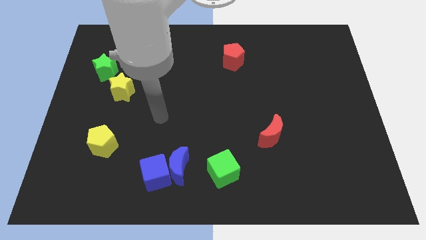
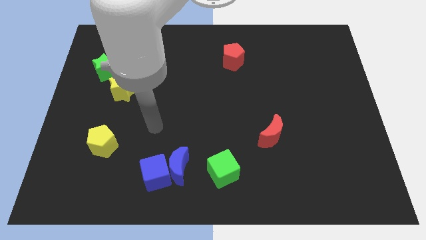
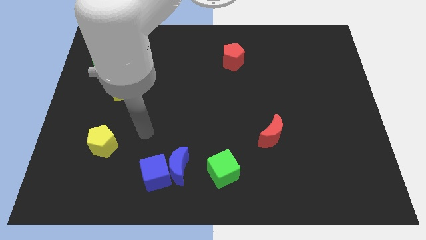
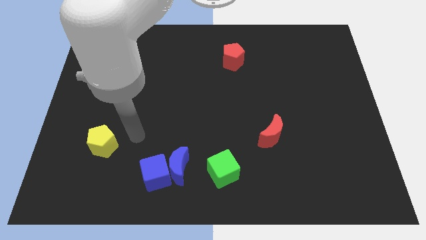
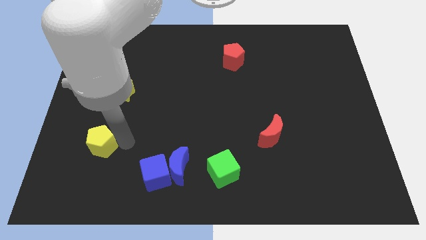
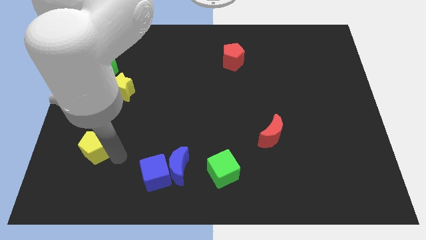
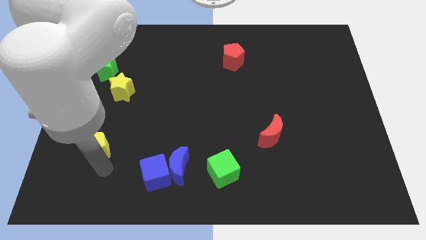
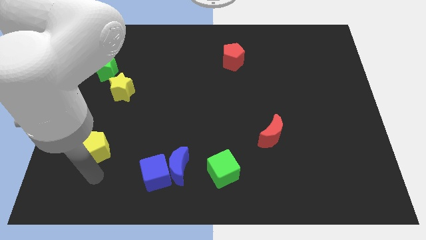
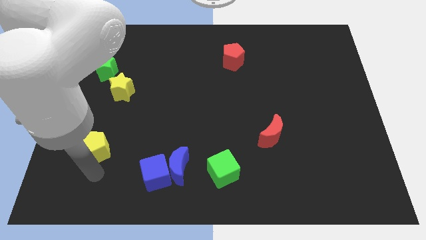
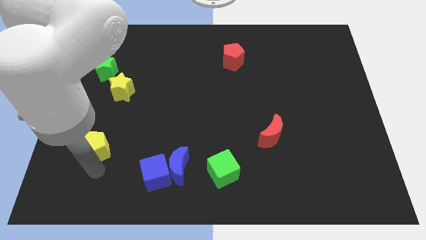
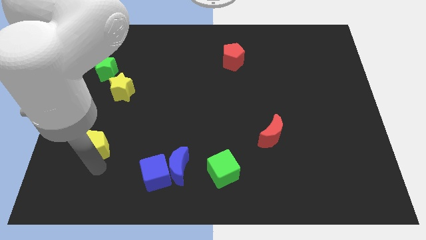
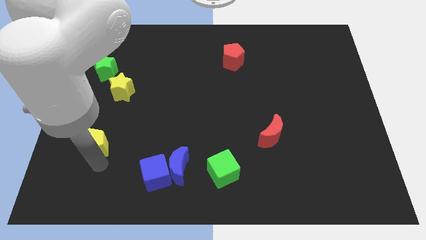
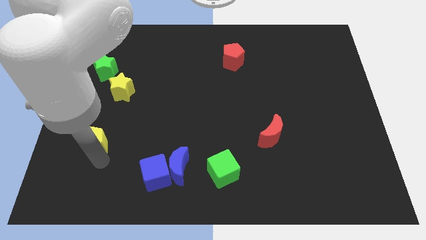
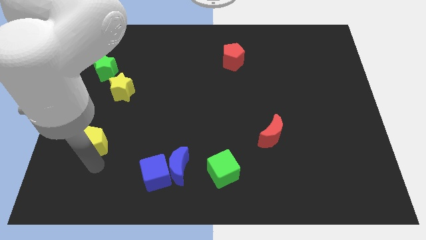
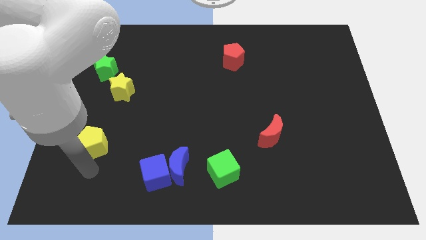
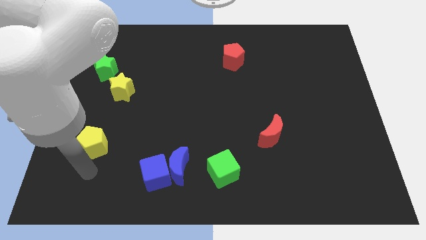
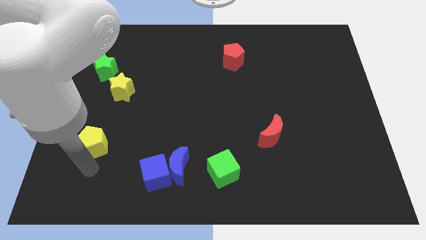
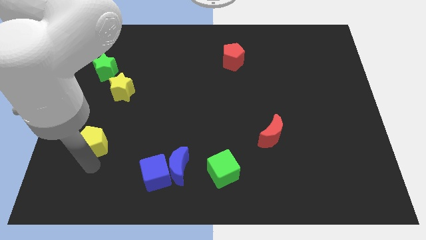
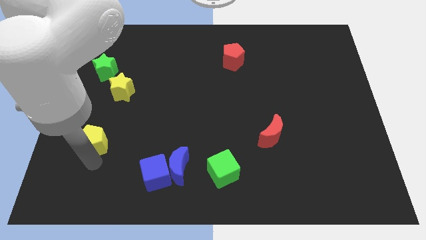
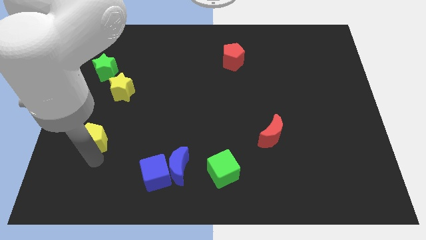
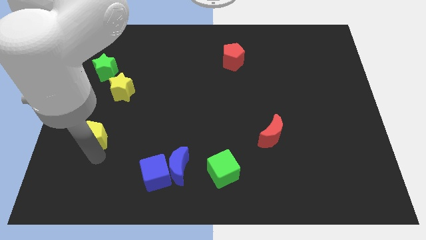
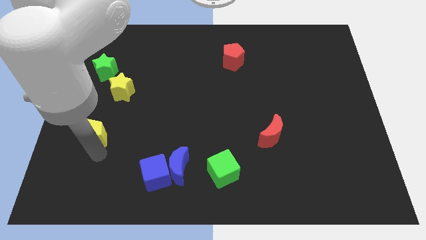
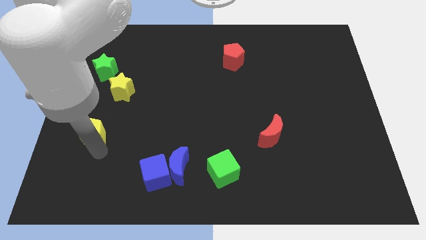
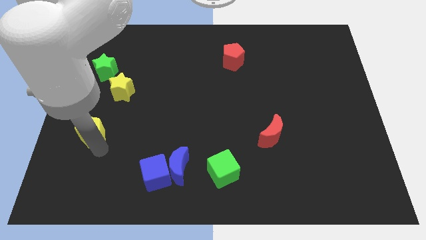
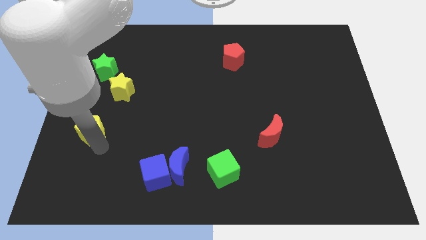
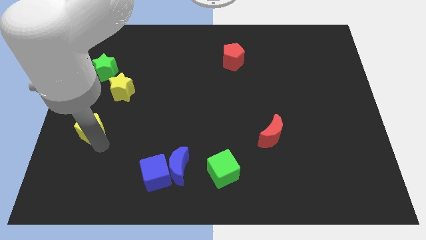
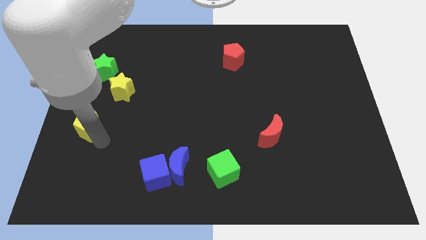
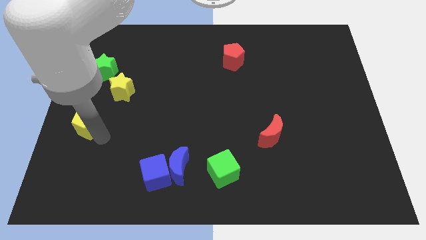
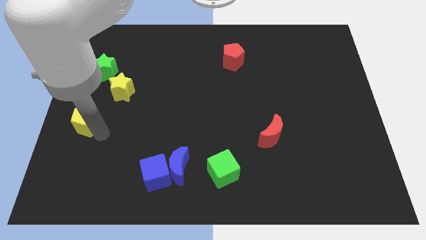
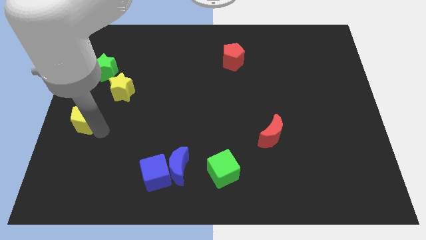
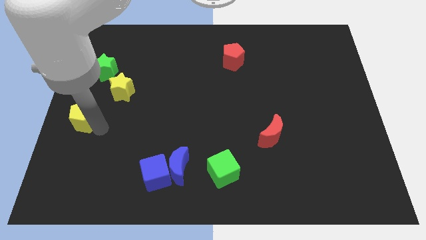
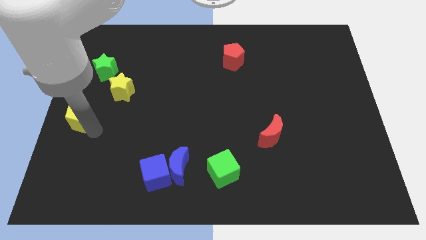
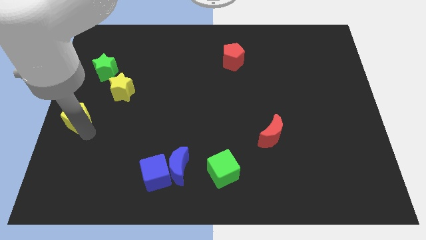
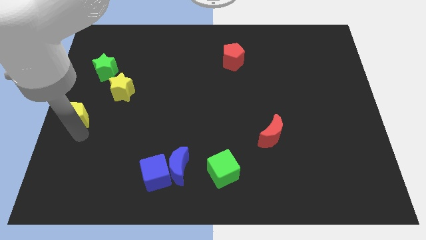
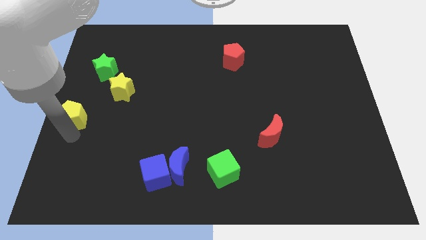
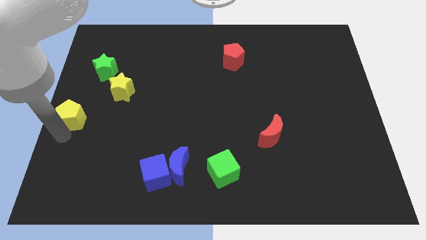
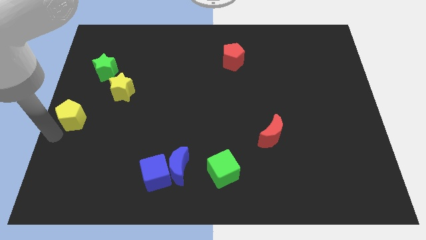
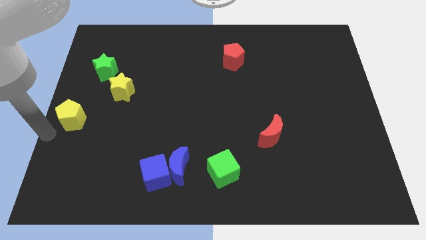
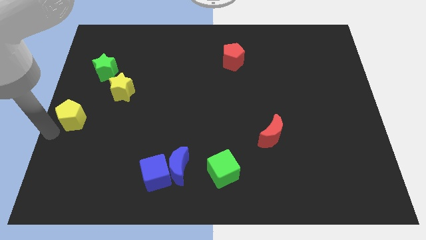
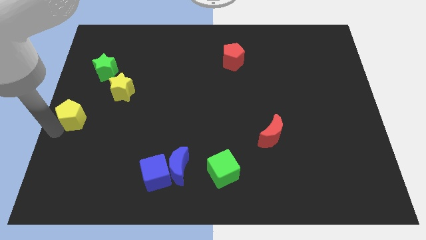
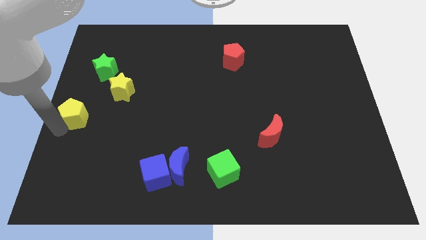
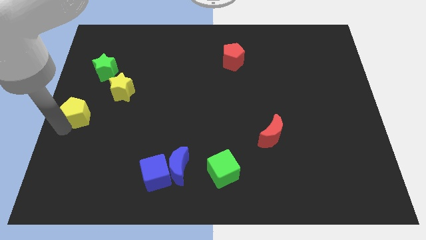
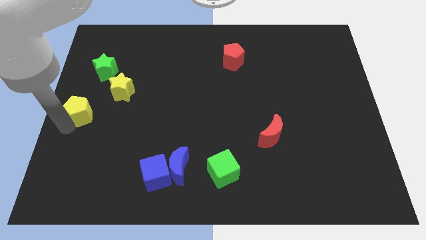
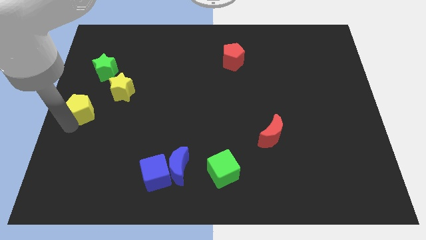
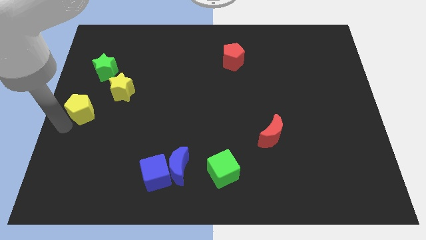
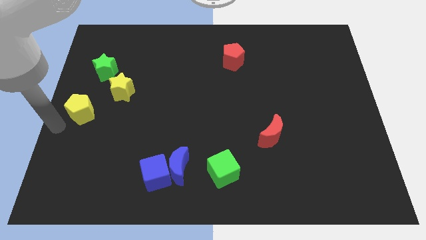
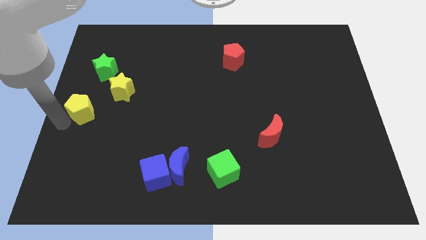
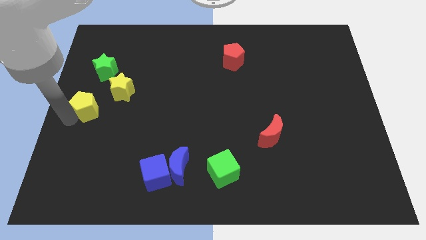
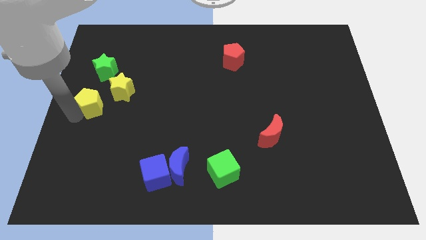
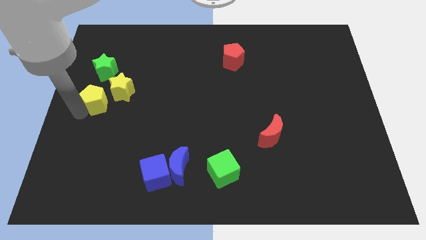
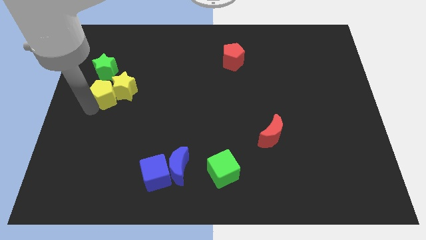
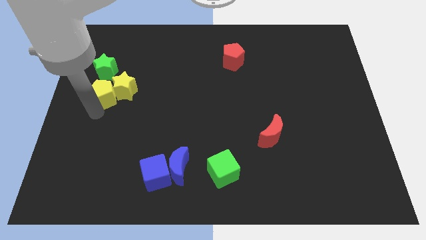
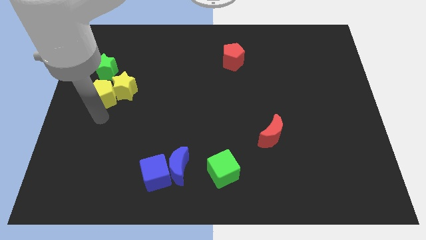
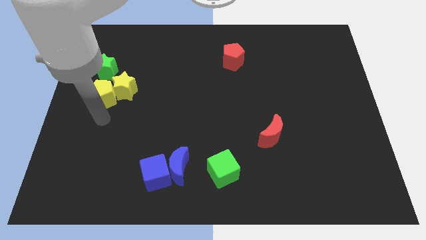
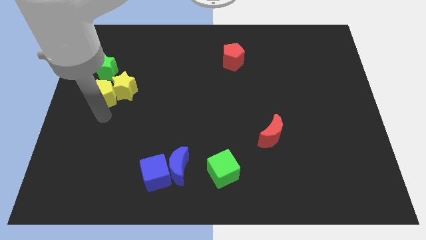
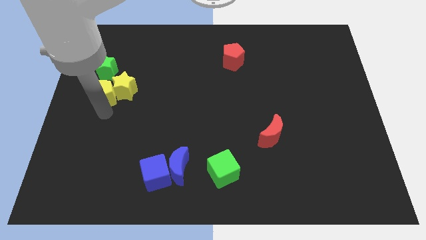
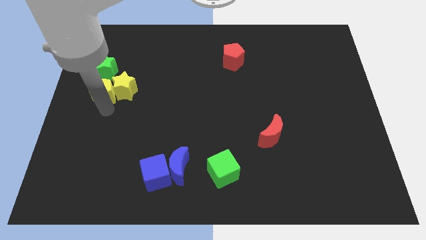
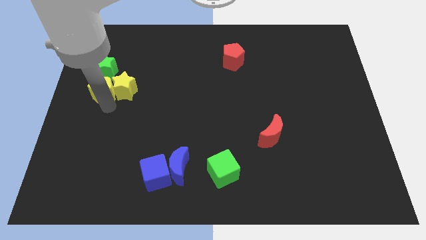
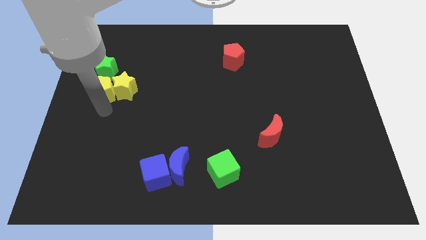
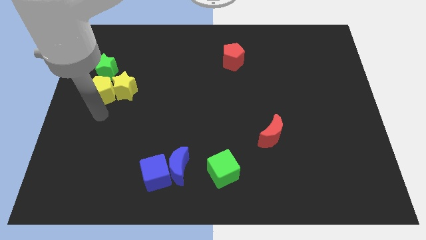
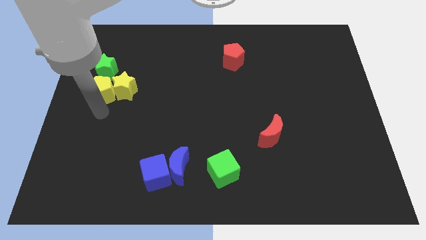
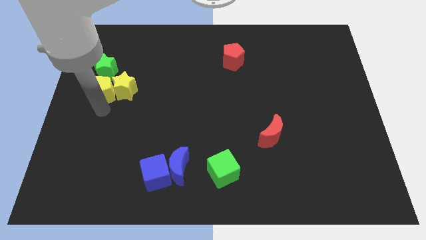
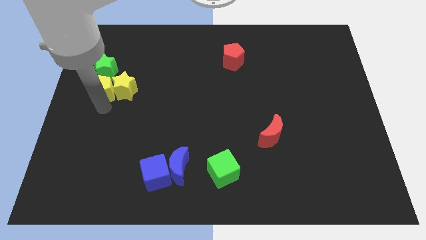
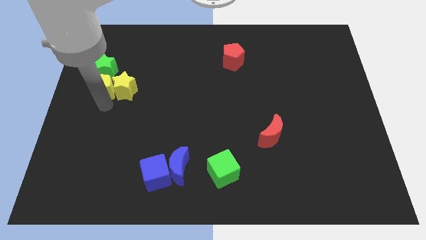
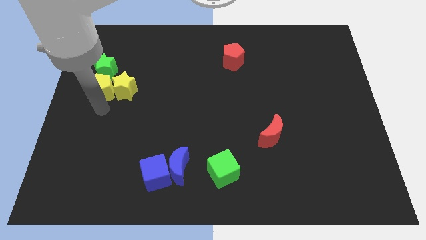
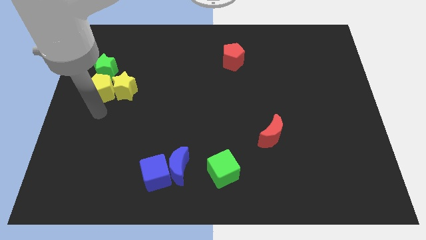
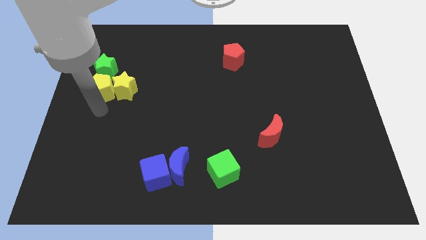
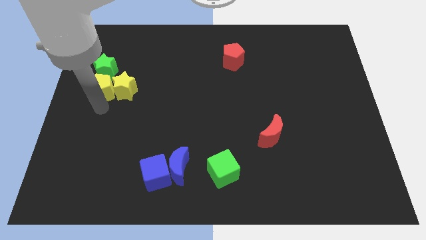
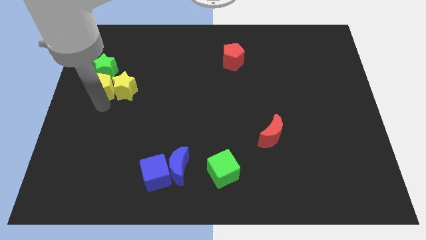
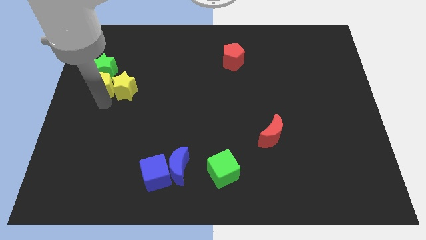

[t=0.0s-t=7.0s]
push the yellow pentagon next to the green star

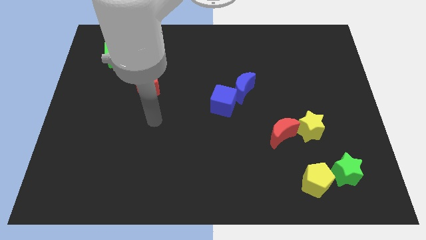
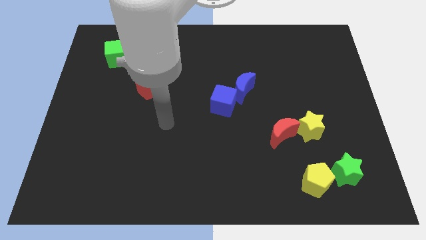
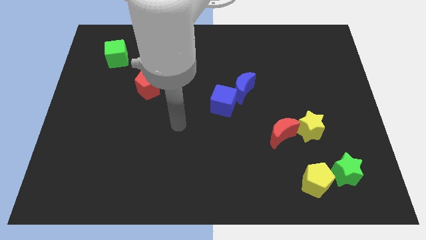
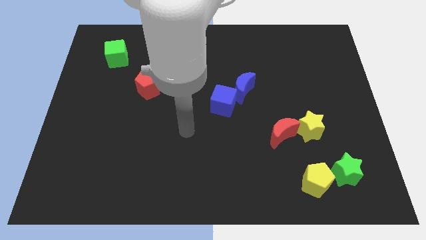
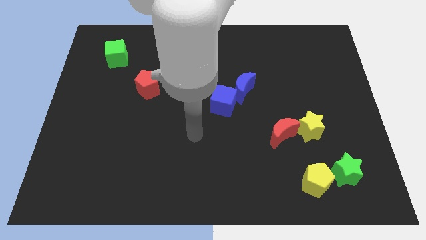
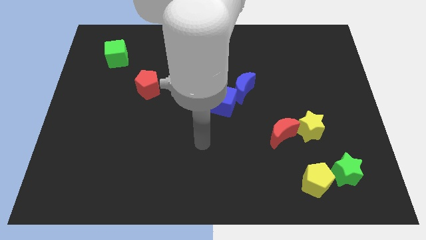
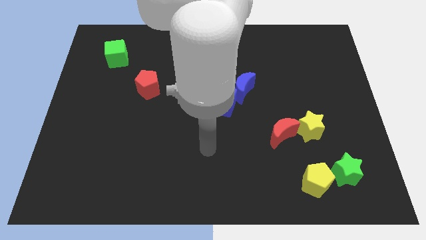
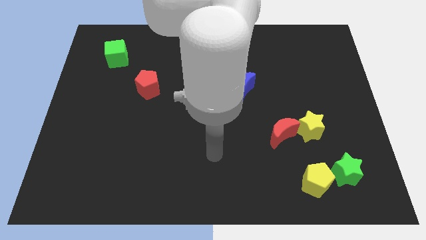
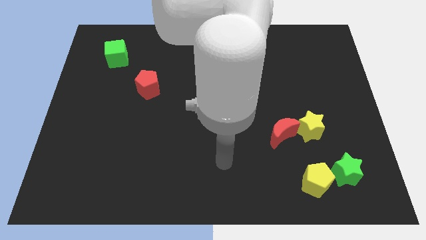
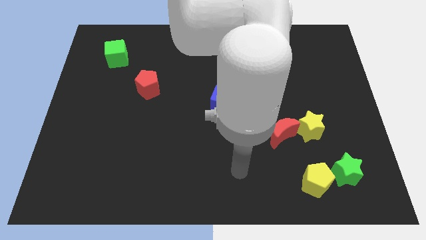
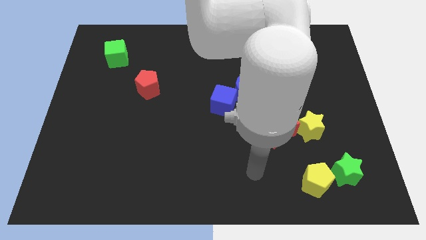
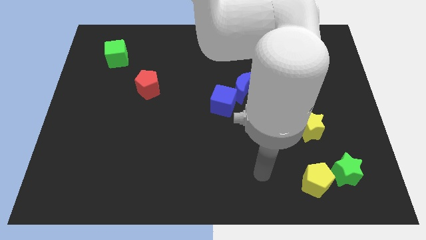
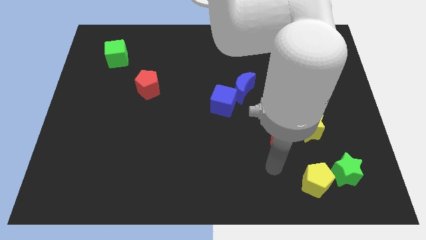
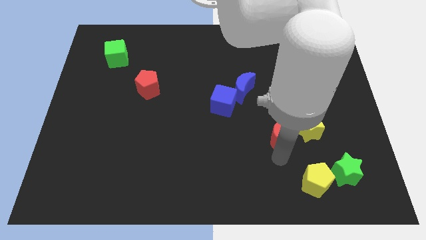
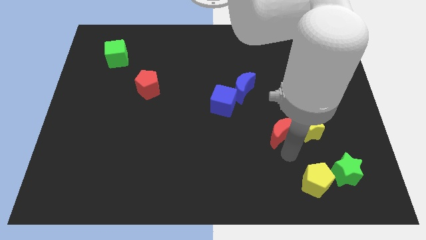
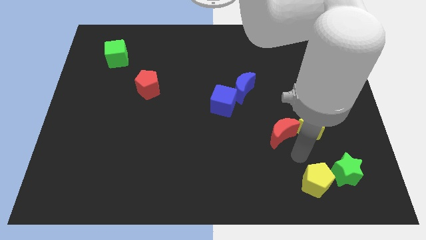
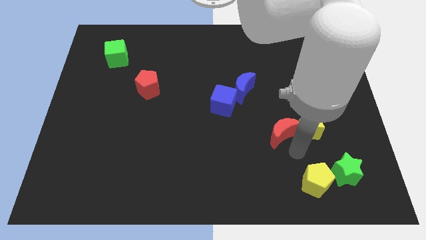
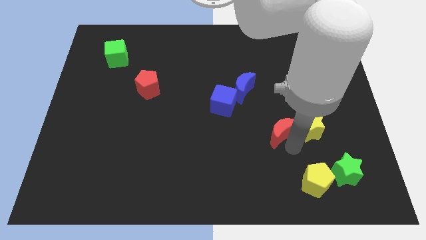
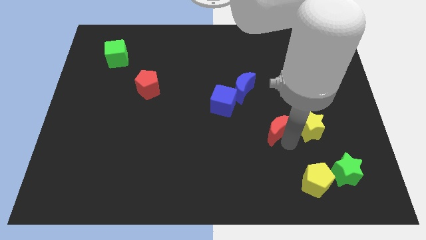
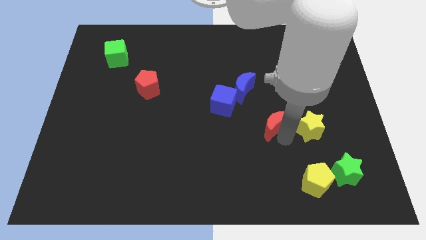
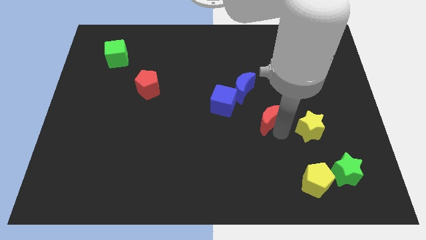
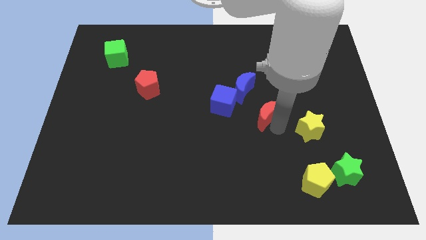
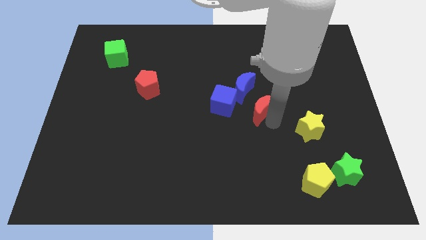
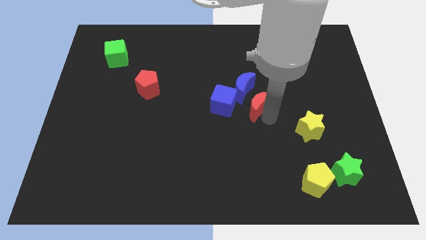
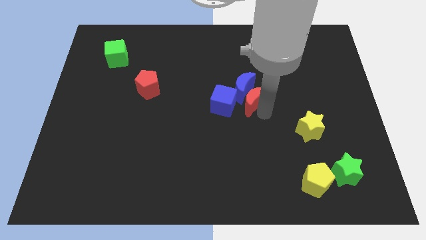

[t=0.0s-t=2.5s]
slide the red moon close to the blue moon
